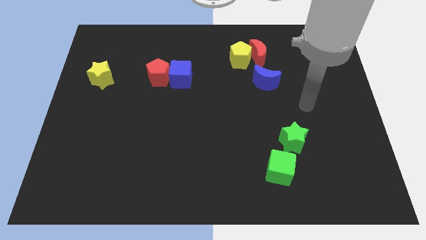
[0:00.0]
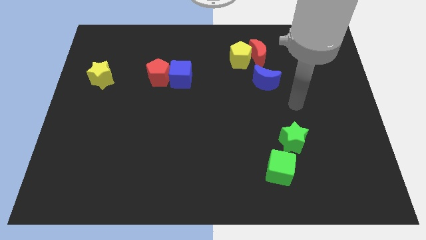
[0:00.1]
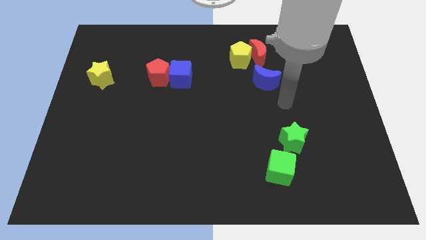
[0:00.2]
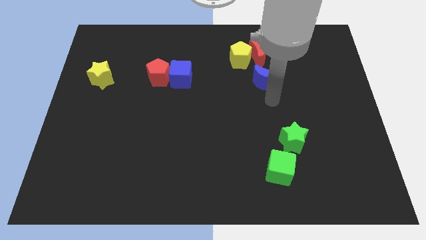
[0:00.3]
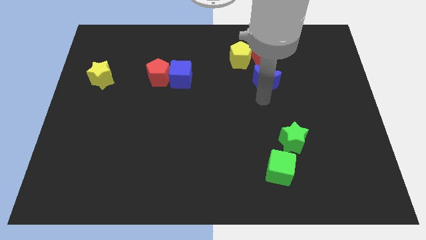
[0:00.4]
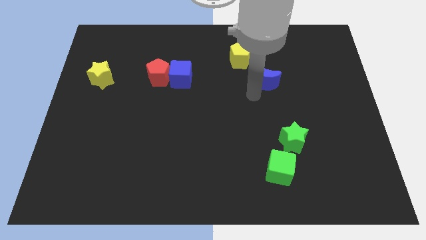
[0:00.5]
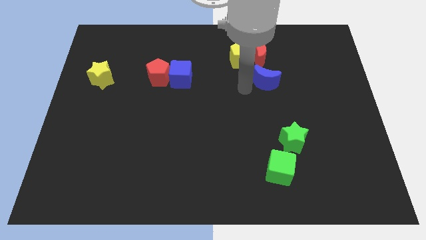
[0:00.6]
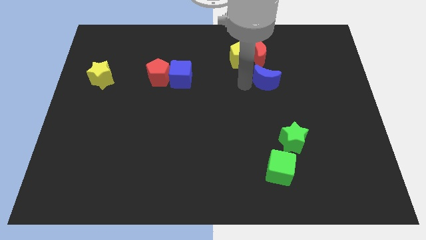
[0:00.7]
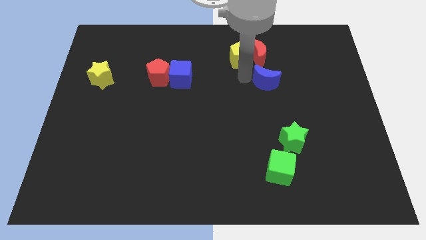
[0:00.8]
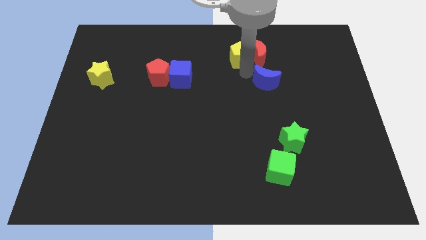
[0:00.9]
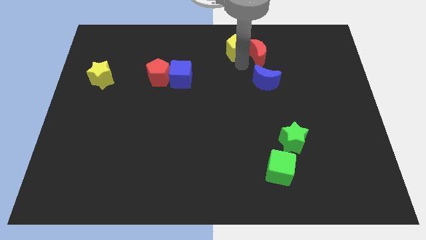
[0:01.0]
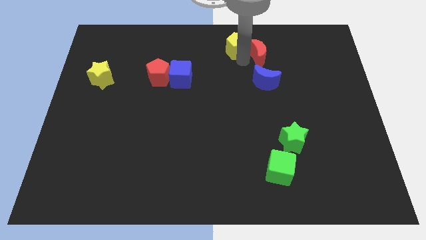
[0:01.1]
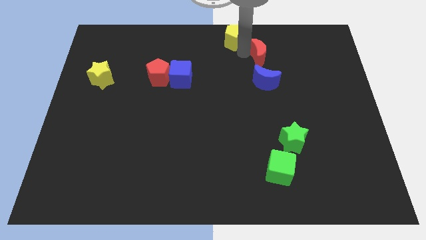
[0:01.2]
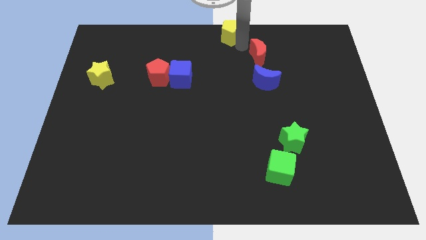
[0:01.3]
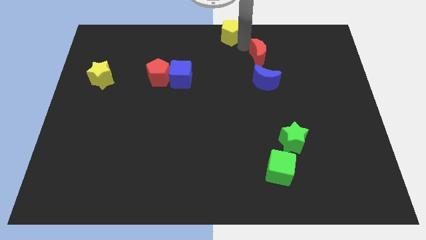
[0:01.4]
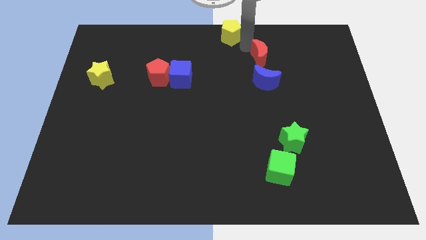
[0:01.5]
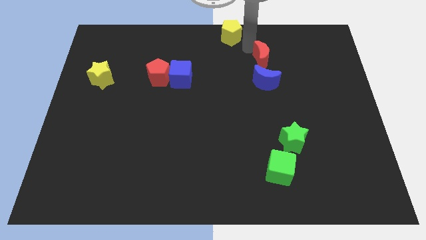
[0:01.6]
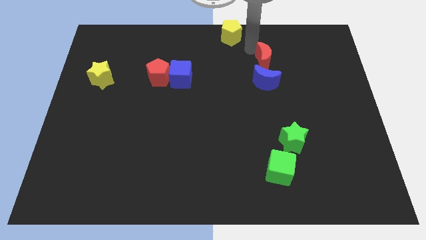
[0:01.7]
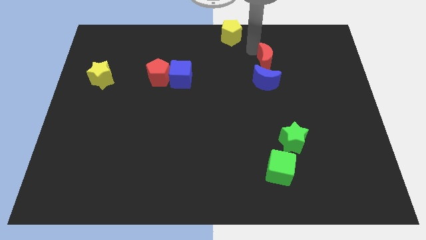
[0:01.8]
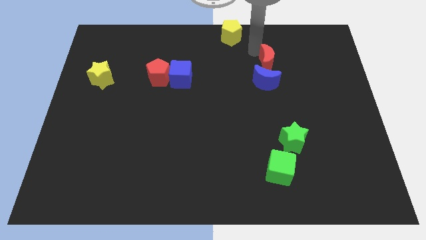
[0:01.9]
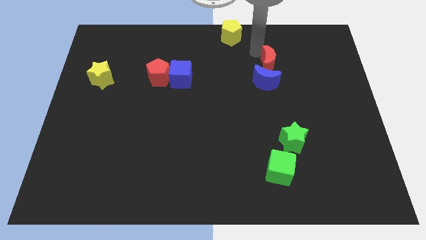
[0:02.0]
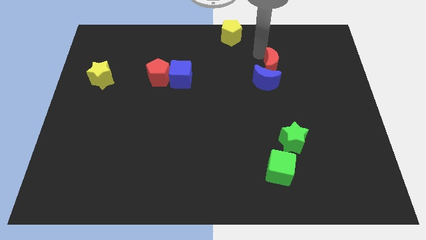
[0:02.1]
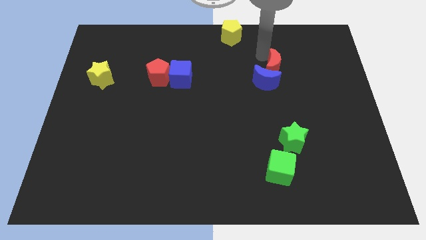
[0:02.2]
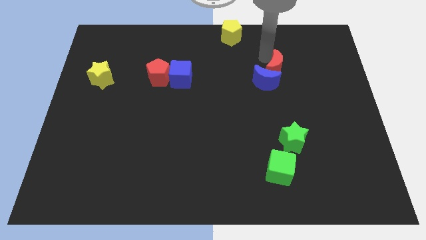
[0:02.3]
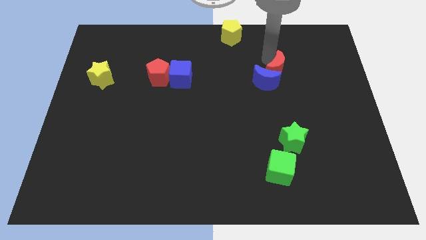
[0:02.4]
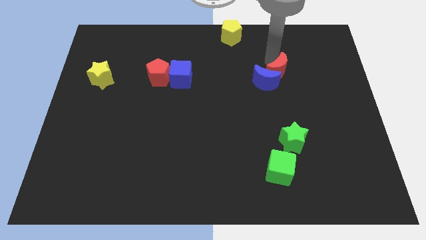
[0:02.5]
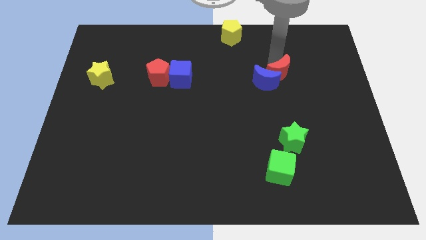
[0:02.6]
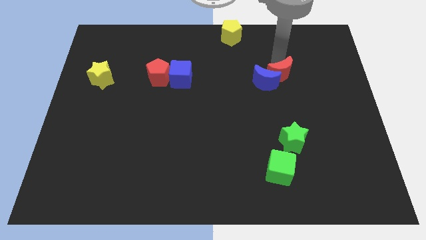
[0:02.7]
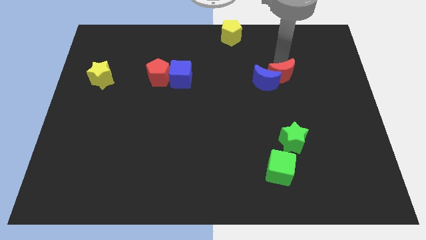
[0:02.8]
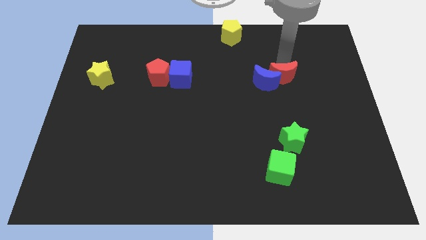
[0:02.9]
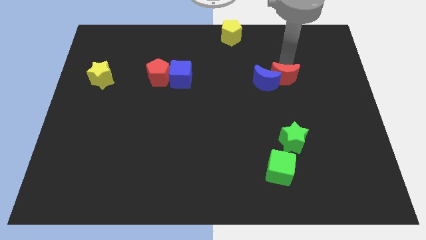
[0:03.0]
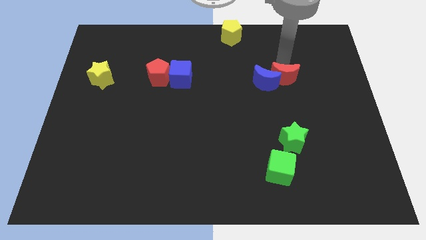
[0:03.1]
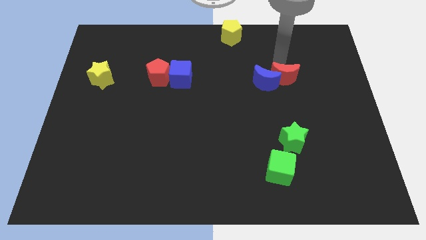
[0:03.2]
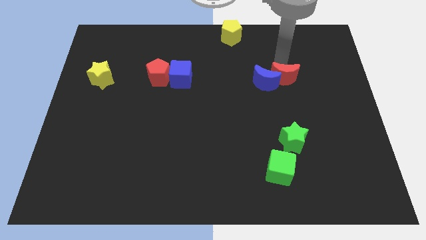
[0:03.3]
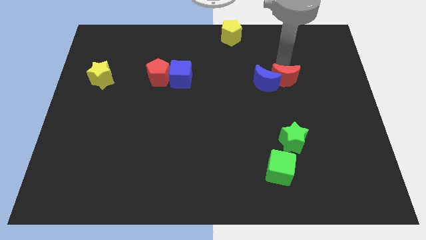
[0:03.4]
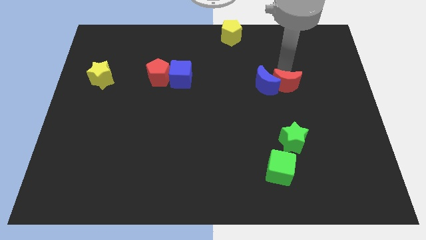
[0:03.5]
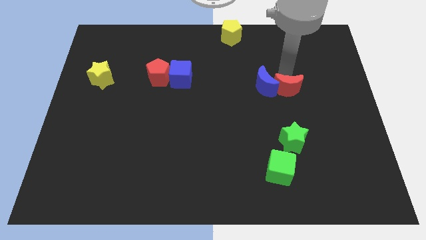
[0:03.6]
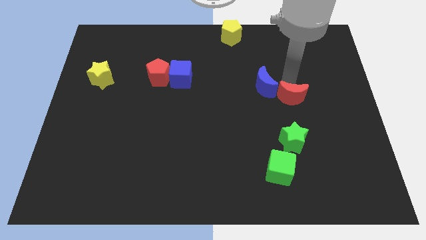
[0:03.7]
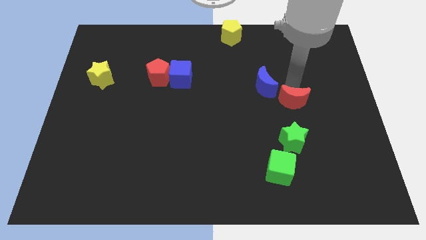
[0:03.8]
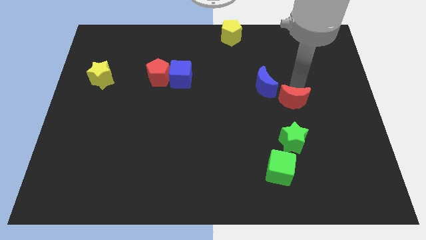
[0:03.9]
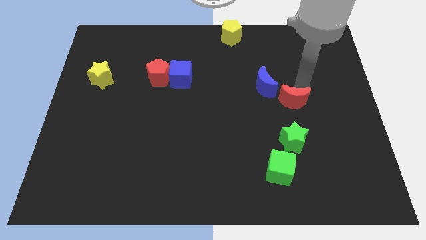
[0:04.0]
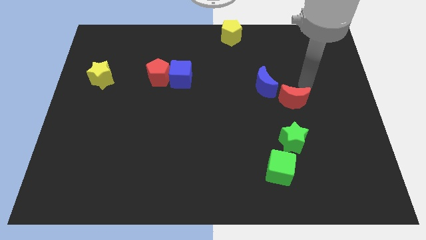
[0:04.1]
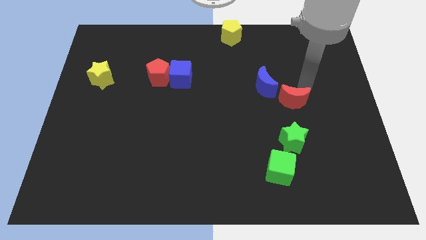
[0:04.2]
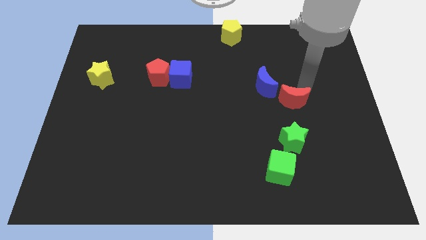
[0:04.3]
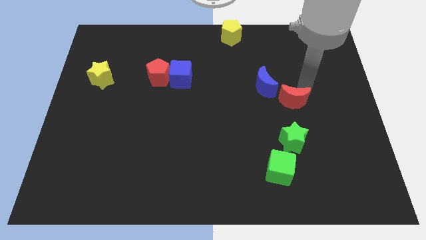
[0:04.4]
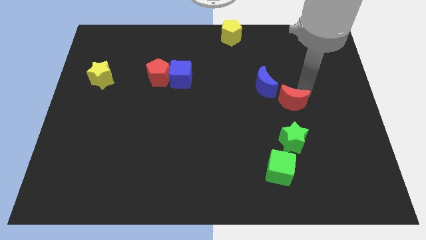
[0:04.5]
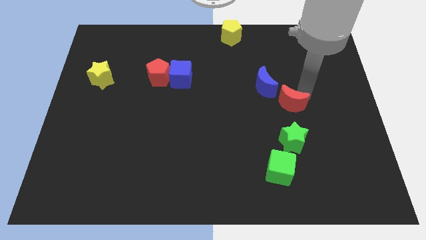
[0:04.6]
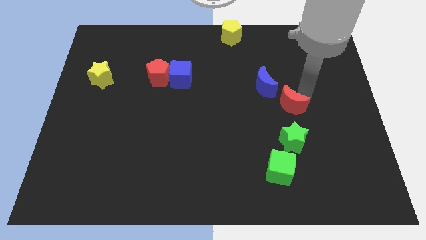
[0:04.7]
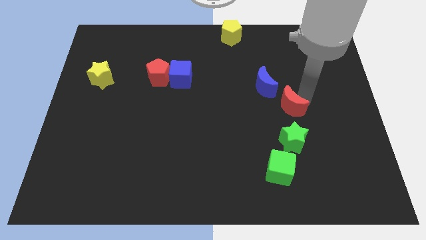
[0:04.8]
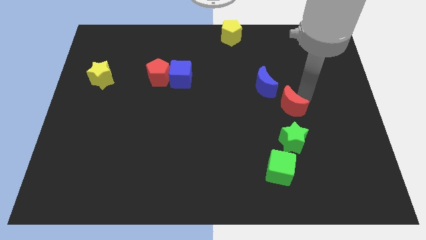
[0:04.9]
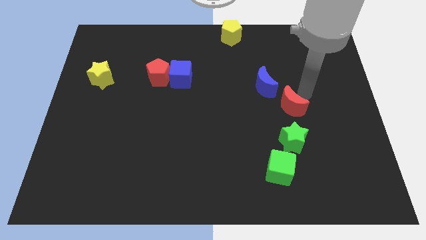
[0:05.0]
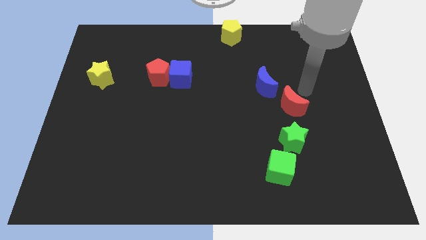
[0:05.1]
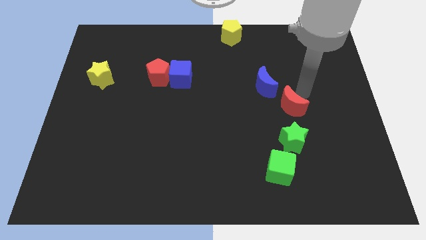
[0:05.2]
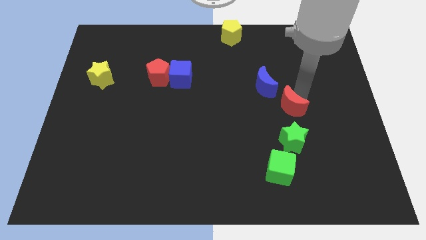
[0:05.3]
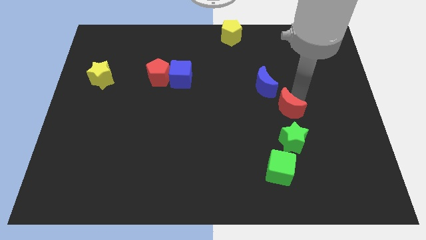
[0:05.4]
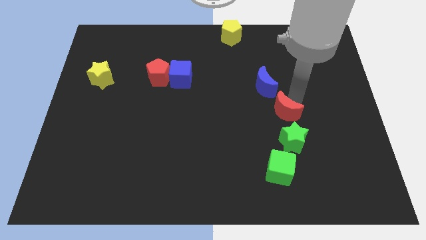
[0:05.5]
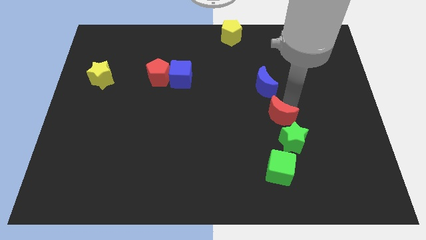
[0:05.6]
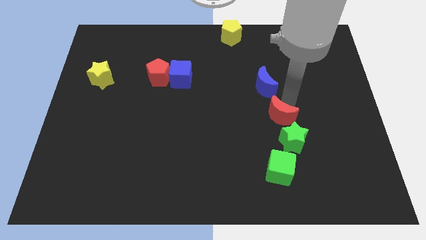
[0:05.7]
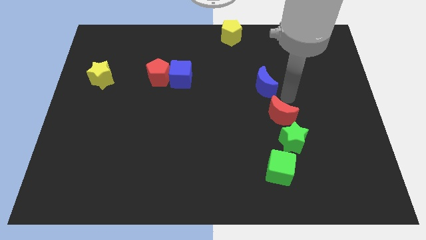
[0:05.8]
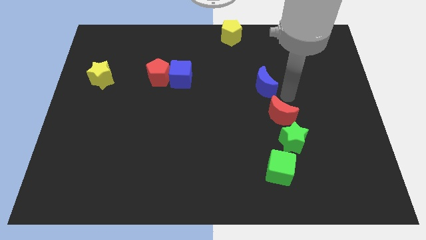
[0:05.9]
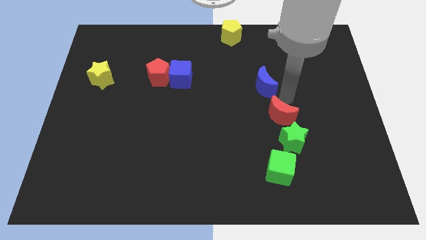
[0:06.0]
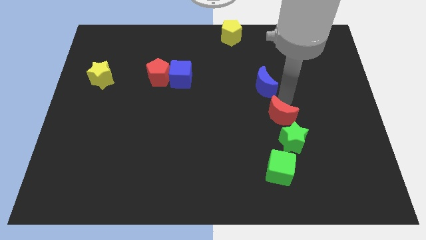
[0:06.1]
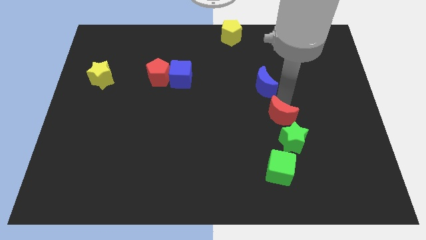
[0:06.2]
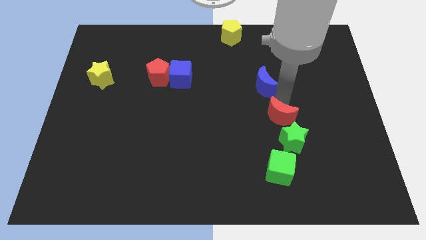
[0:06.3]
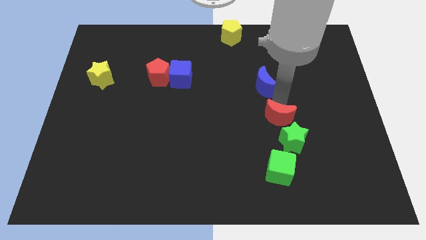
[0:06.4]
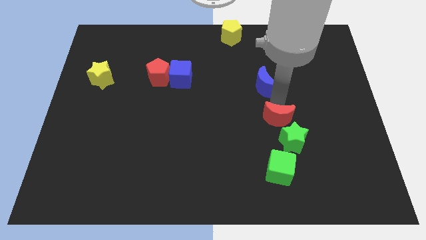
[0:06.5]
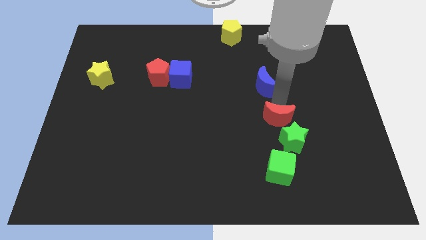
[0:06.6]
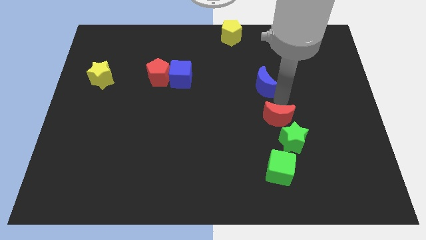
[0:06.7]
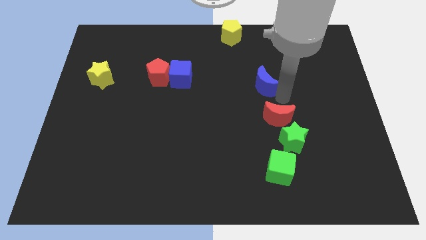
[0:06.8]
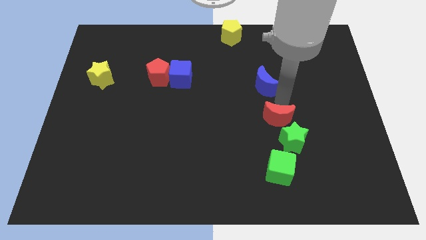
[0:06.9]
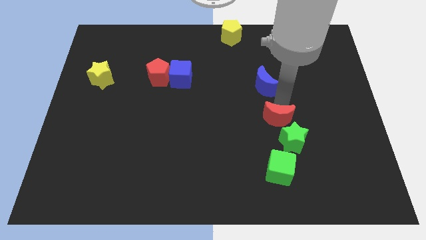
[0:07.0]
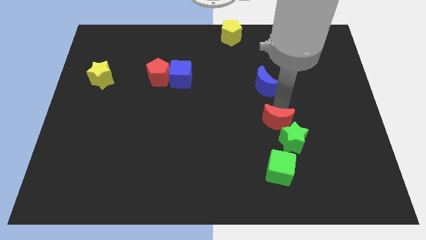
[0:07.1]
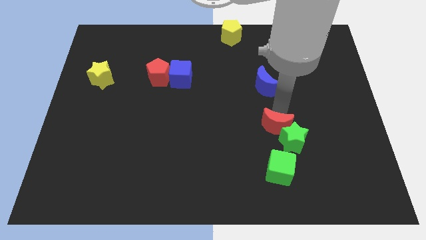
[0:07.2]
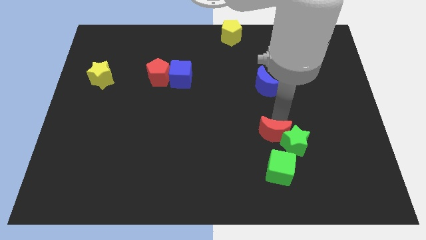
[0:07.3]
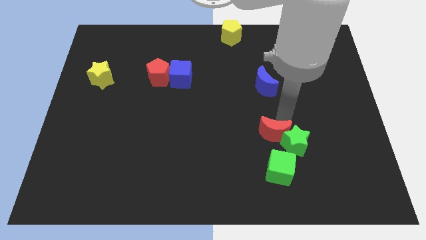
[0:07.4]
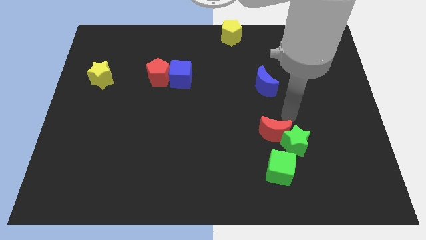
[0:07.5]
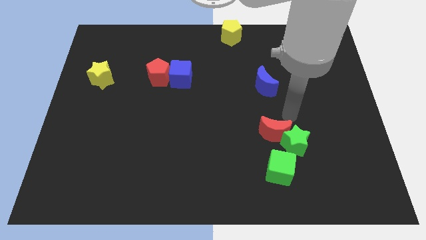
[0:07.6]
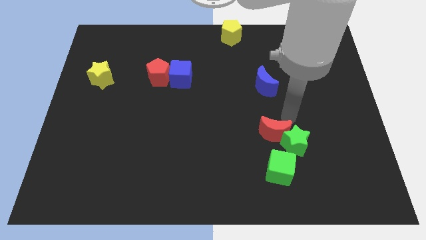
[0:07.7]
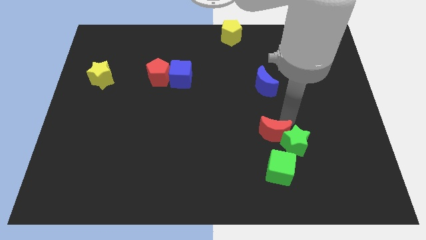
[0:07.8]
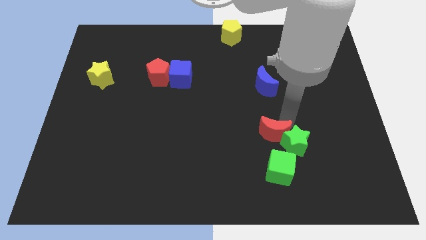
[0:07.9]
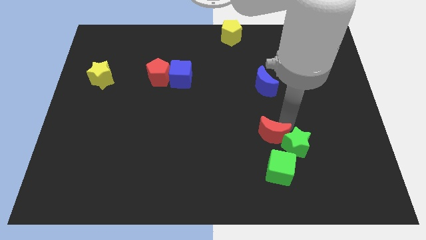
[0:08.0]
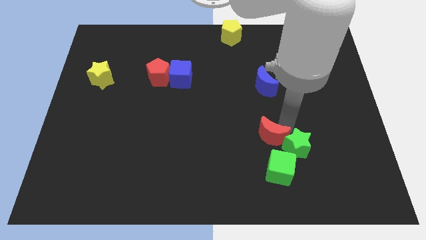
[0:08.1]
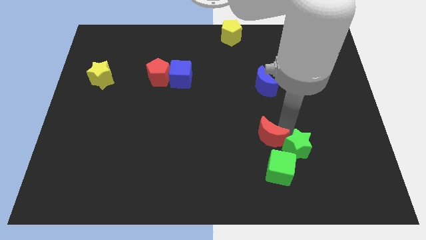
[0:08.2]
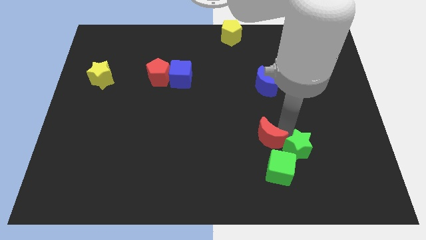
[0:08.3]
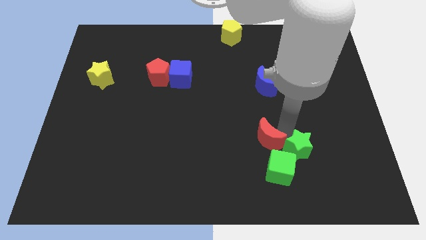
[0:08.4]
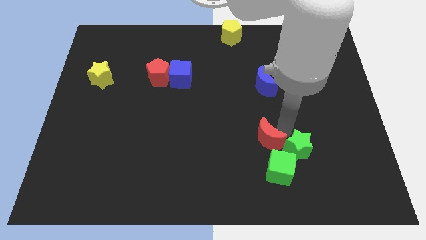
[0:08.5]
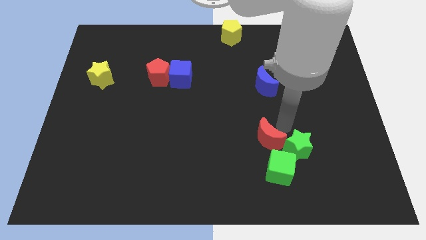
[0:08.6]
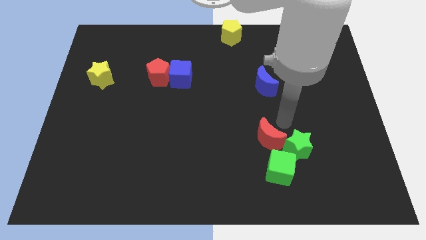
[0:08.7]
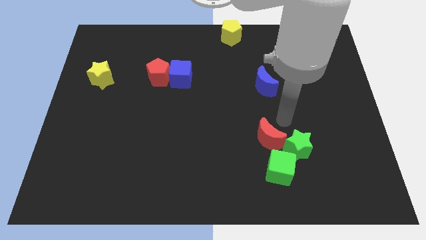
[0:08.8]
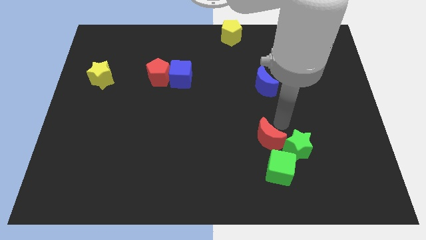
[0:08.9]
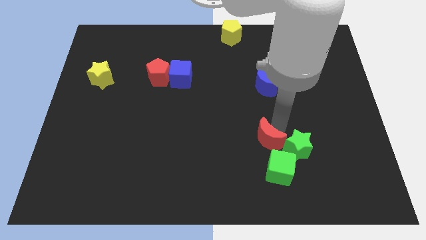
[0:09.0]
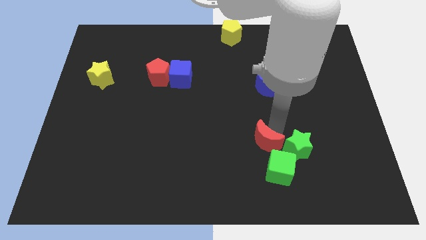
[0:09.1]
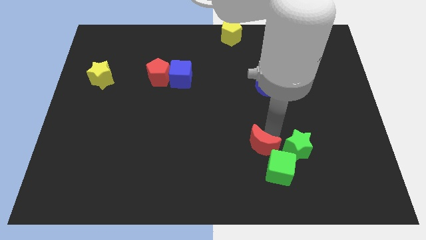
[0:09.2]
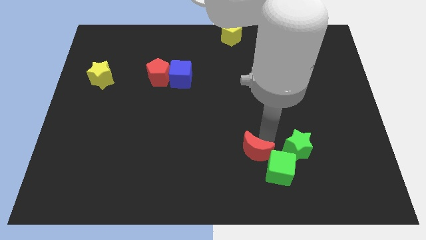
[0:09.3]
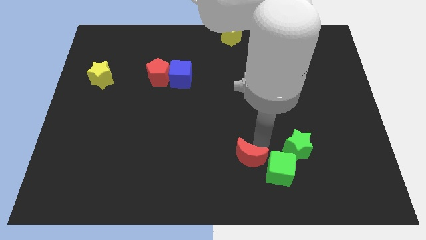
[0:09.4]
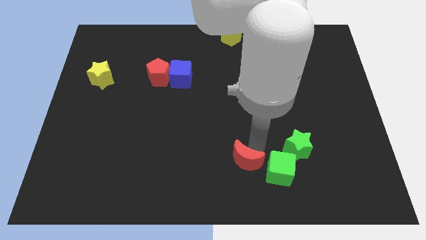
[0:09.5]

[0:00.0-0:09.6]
slide the red moon to the bottom side
